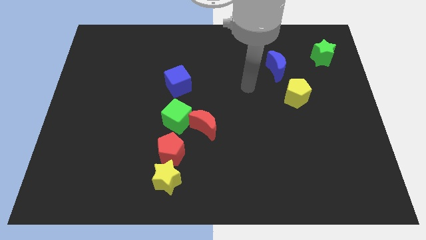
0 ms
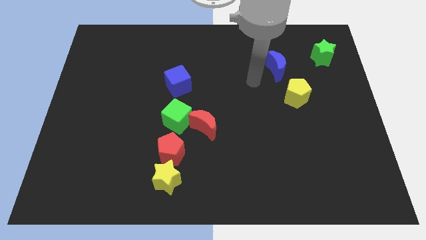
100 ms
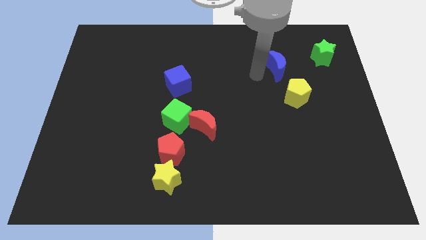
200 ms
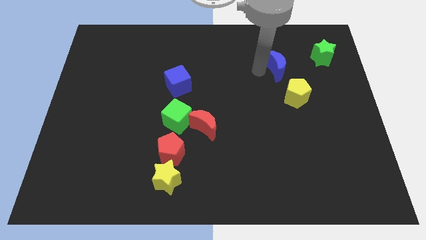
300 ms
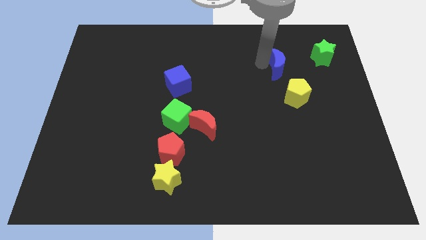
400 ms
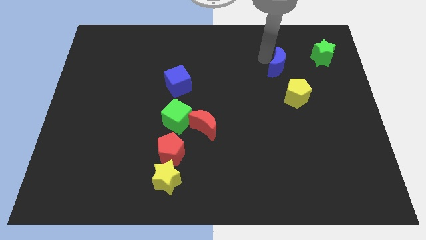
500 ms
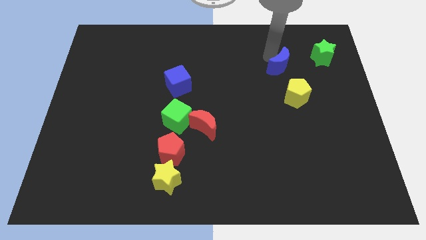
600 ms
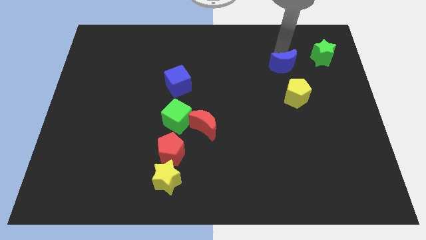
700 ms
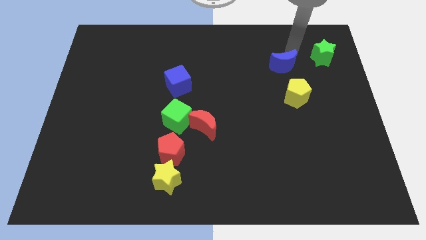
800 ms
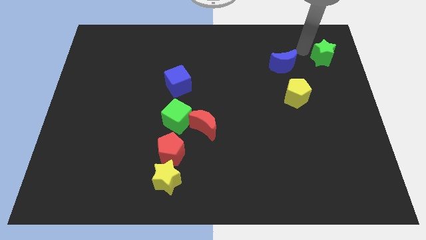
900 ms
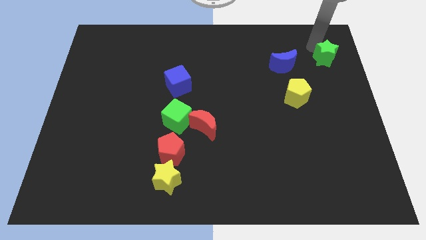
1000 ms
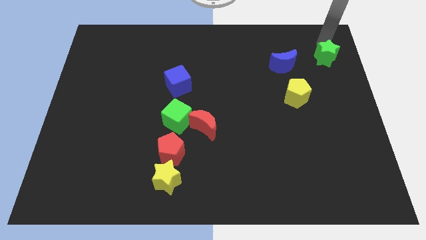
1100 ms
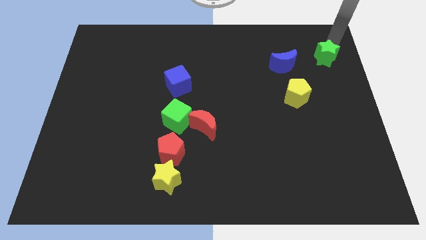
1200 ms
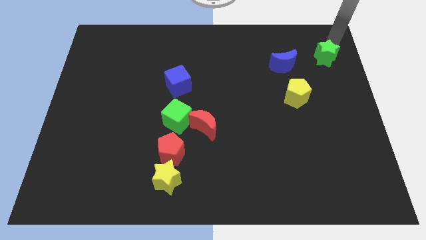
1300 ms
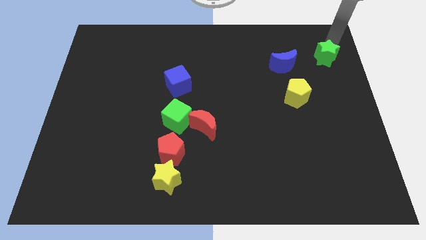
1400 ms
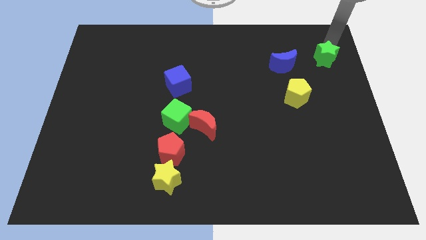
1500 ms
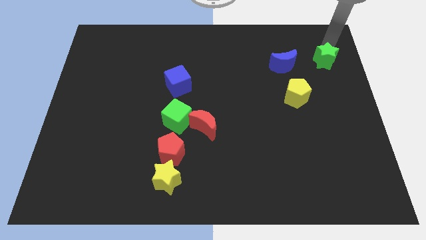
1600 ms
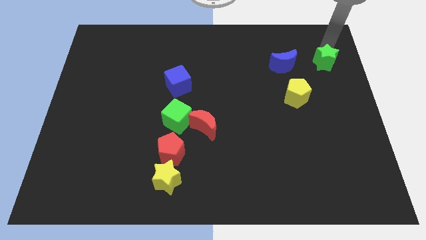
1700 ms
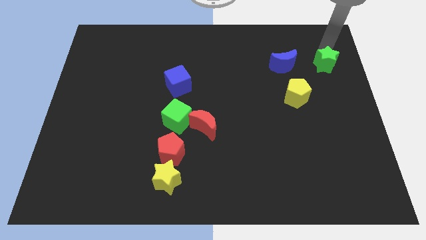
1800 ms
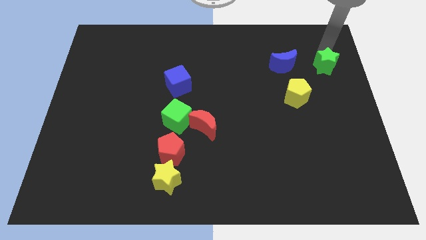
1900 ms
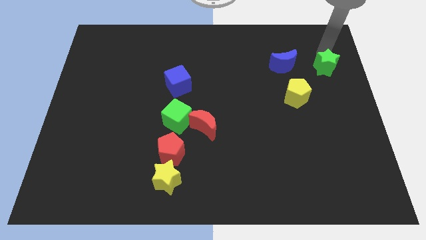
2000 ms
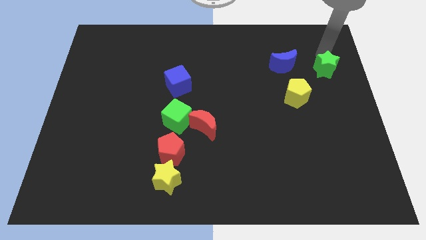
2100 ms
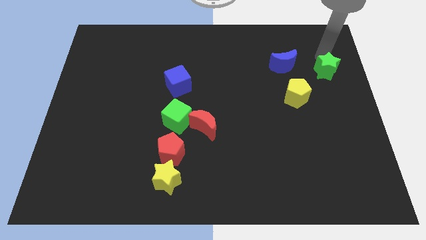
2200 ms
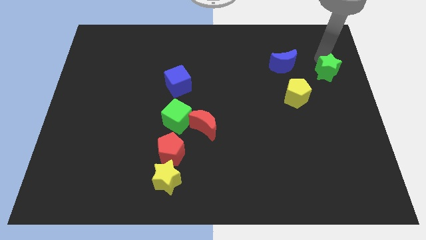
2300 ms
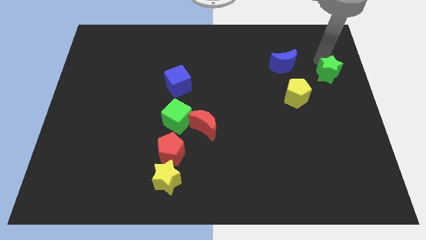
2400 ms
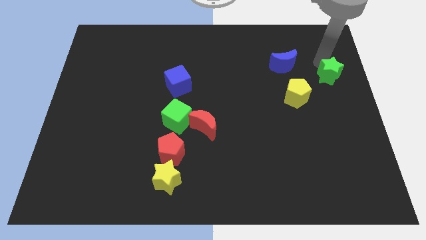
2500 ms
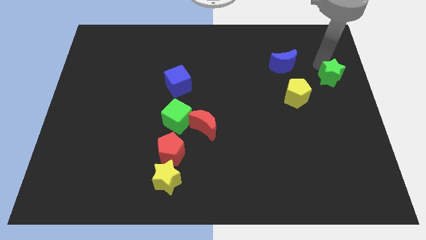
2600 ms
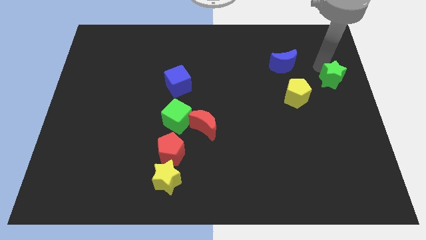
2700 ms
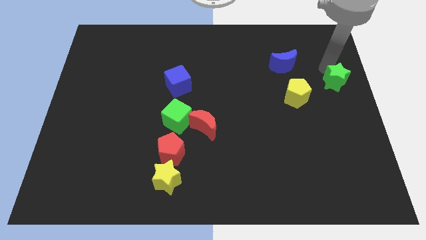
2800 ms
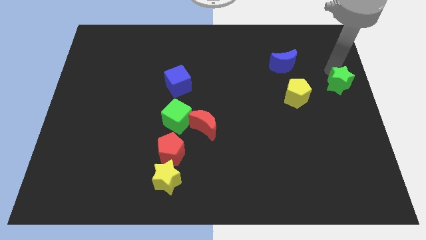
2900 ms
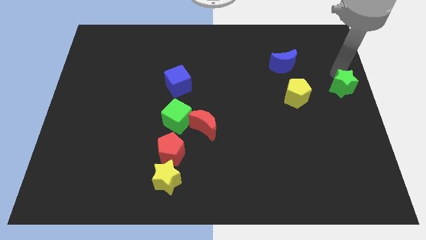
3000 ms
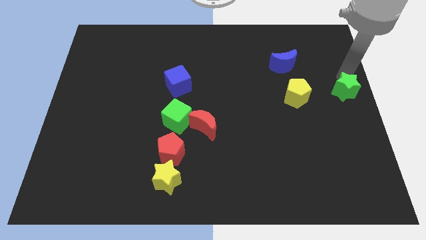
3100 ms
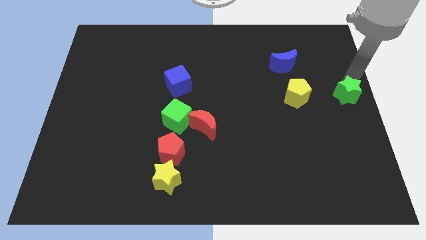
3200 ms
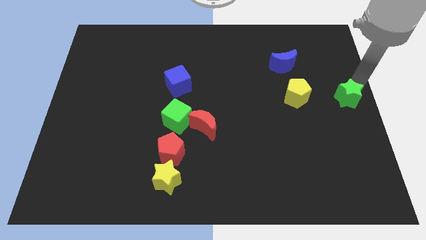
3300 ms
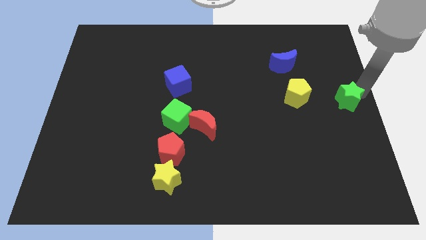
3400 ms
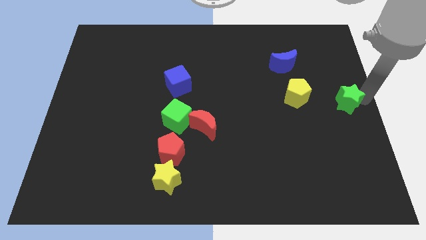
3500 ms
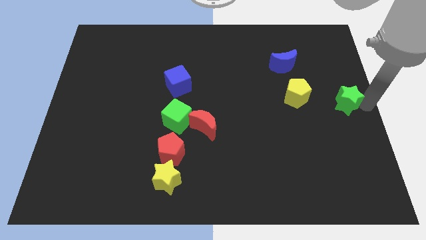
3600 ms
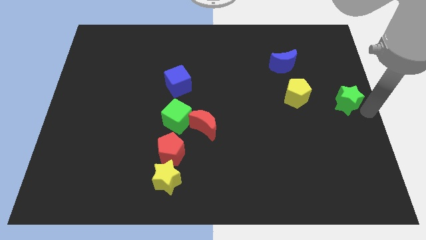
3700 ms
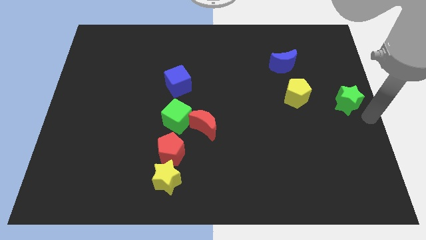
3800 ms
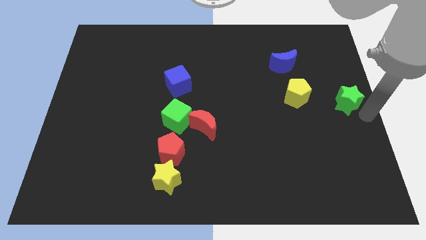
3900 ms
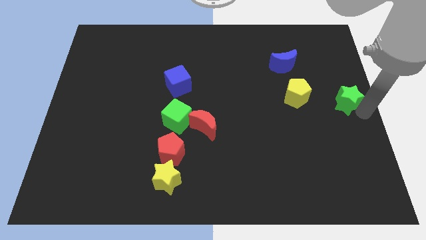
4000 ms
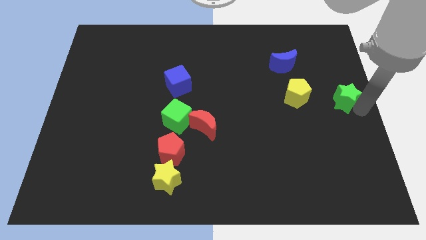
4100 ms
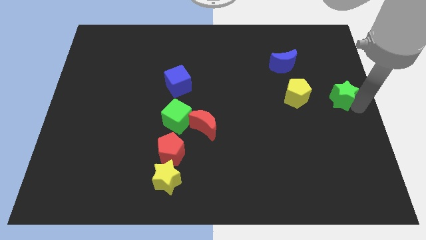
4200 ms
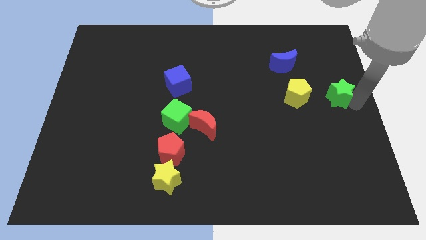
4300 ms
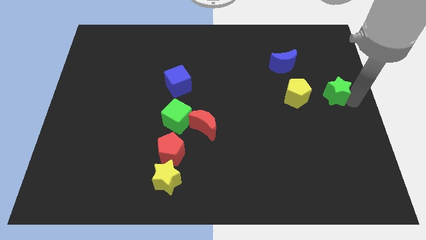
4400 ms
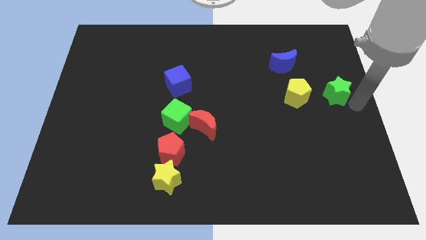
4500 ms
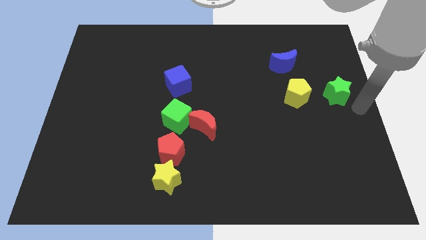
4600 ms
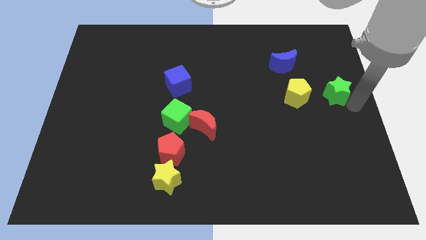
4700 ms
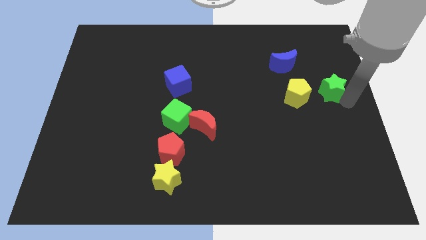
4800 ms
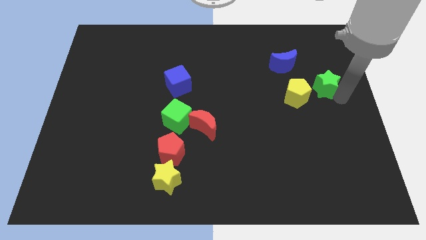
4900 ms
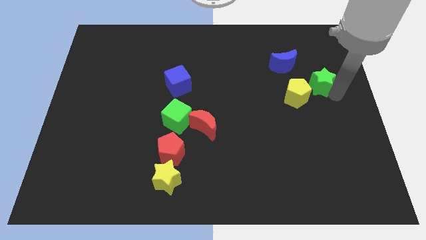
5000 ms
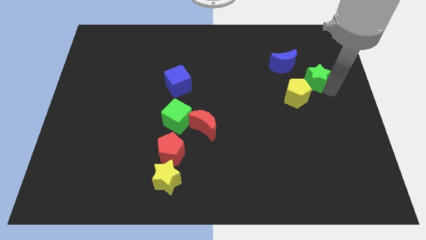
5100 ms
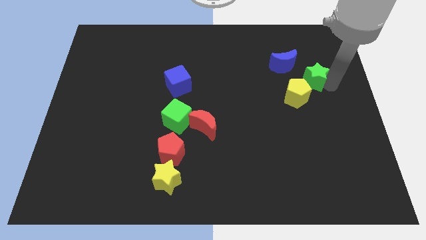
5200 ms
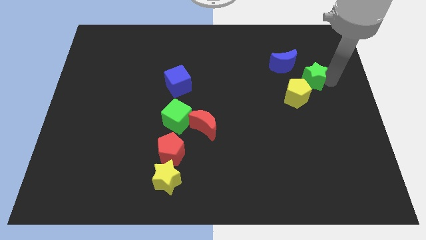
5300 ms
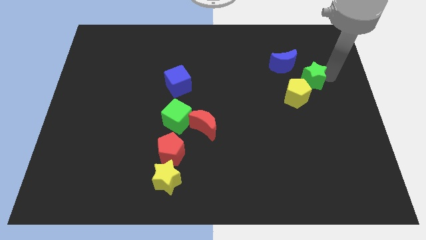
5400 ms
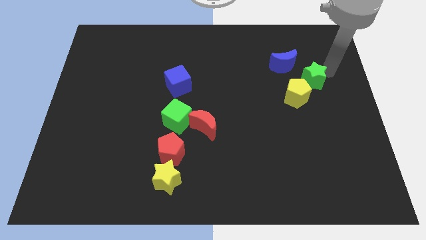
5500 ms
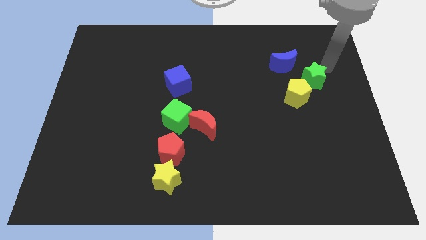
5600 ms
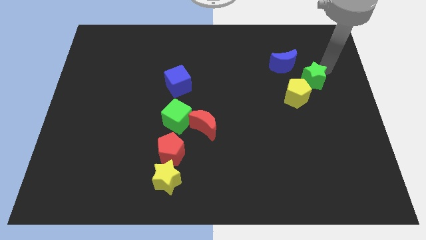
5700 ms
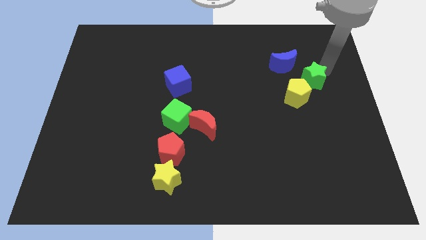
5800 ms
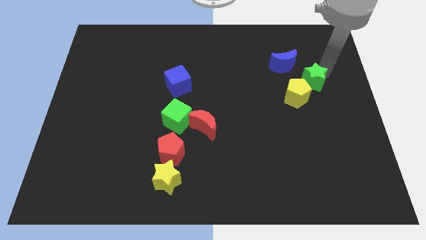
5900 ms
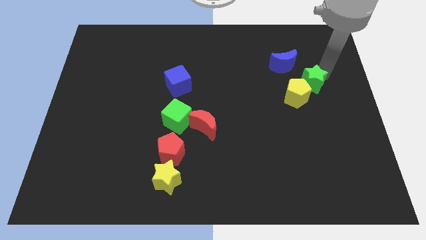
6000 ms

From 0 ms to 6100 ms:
put the green star to the yellow pentagon

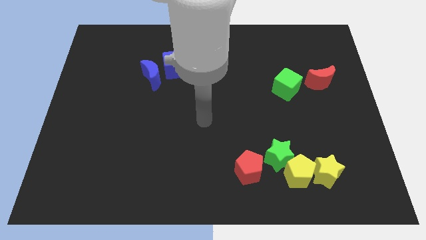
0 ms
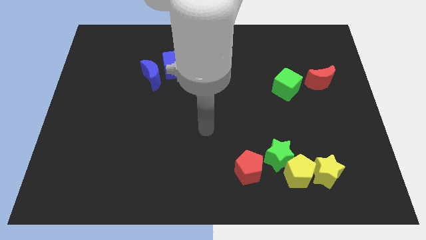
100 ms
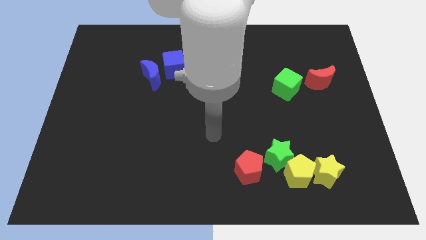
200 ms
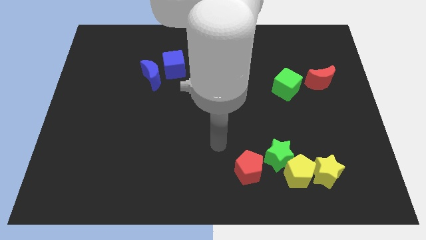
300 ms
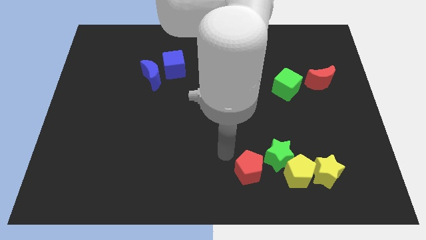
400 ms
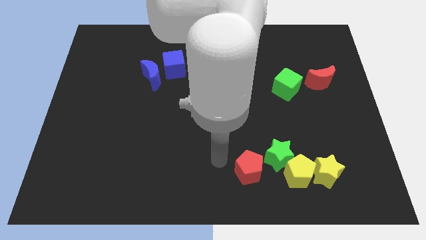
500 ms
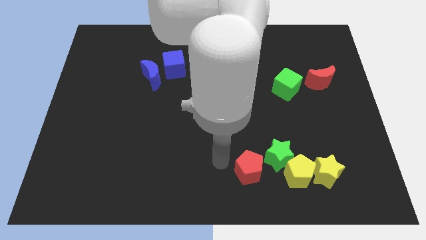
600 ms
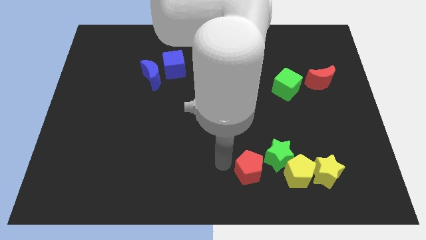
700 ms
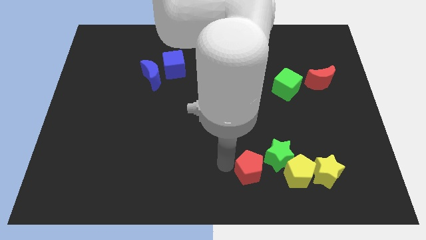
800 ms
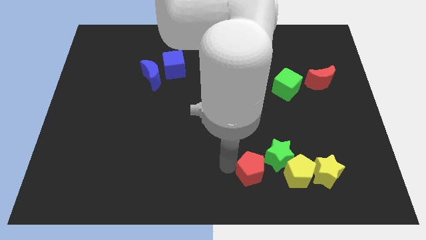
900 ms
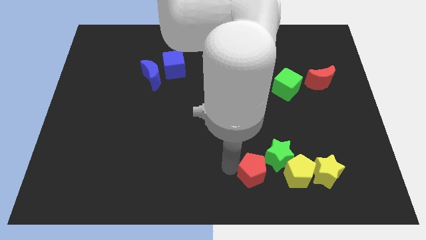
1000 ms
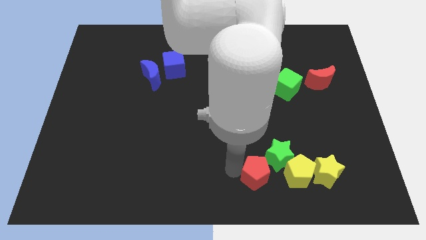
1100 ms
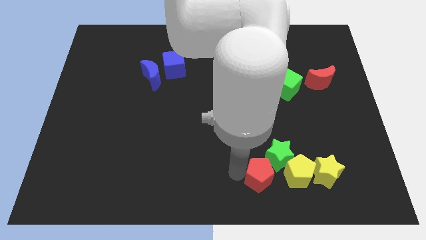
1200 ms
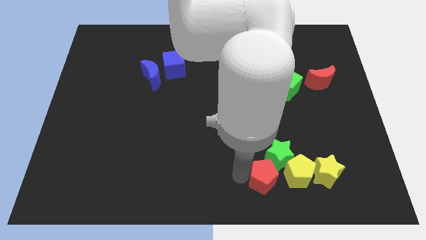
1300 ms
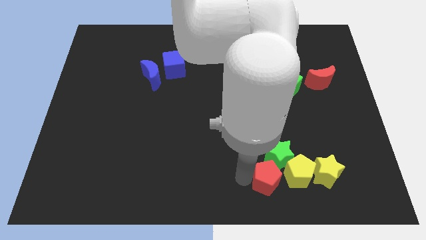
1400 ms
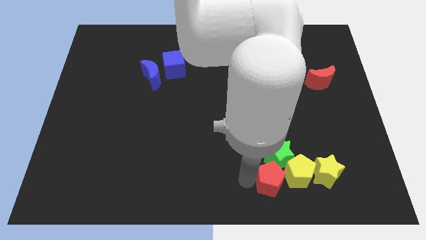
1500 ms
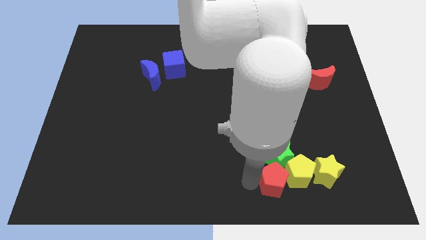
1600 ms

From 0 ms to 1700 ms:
slide the red pentagon to the yellow pentagon
